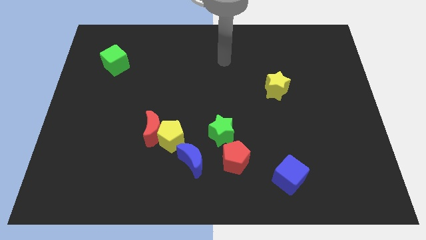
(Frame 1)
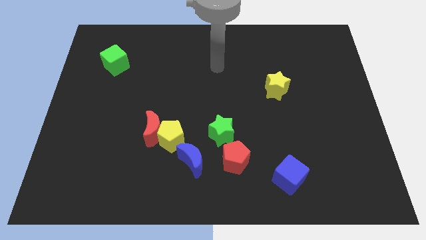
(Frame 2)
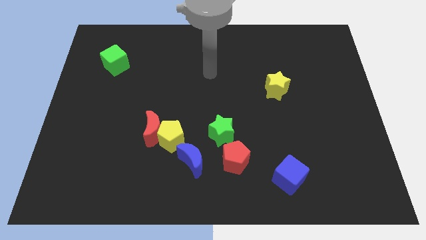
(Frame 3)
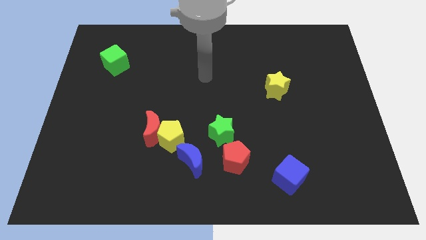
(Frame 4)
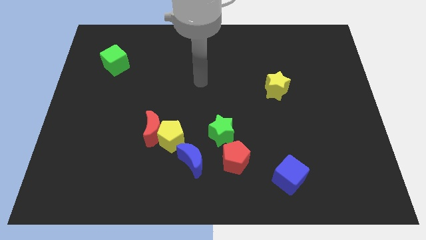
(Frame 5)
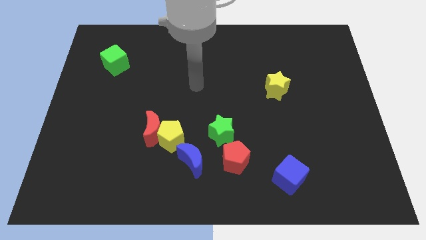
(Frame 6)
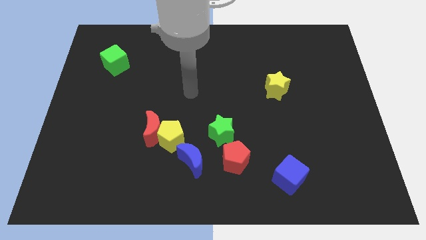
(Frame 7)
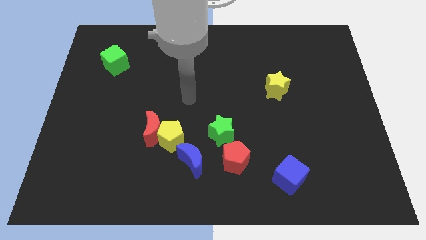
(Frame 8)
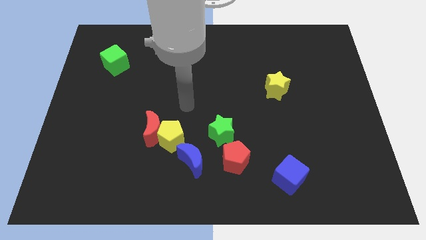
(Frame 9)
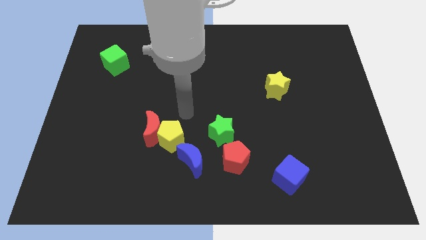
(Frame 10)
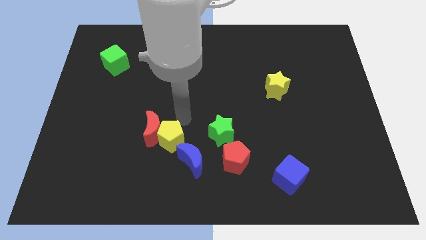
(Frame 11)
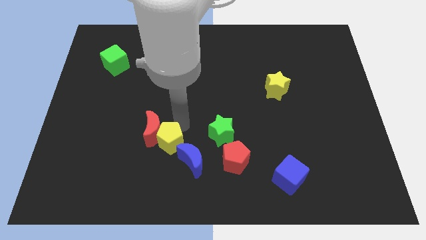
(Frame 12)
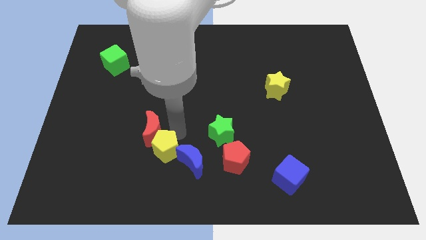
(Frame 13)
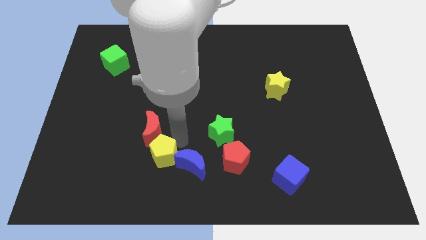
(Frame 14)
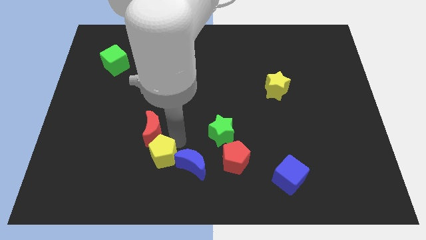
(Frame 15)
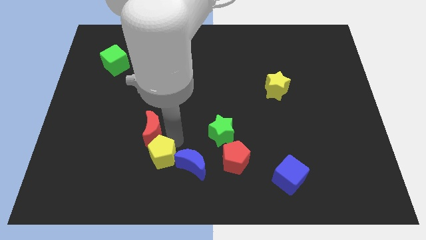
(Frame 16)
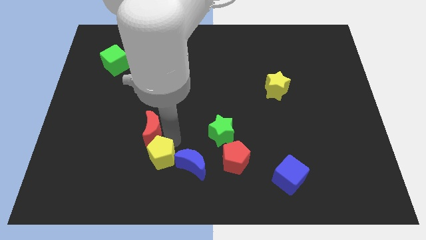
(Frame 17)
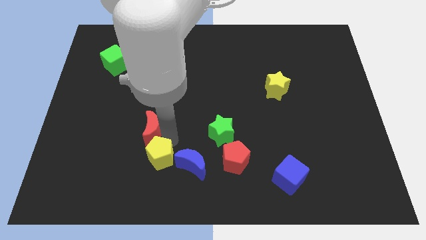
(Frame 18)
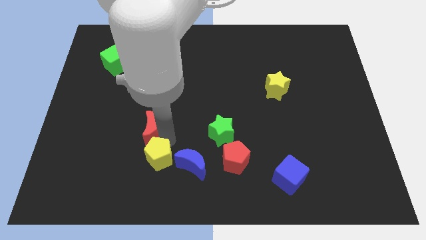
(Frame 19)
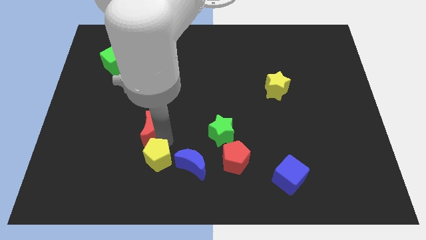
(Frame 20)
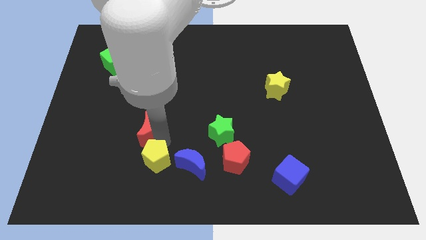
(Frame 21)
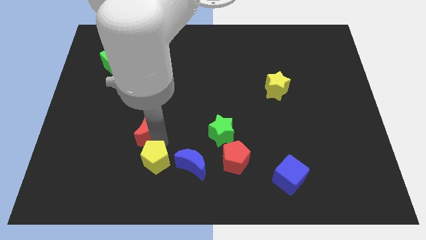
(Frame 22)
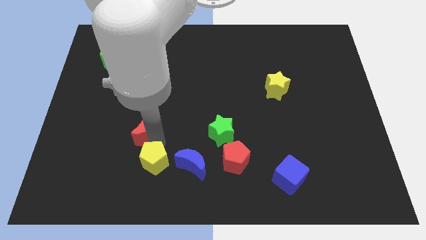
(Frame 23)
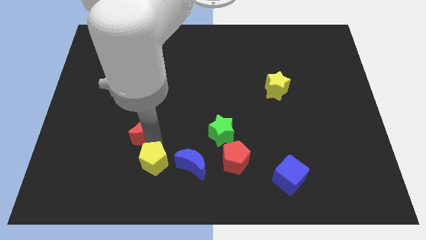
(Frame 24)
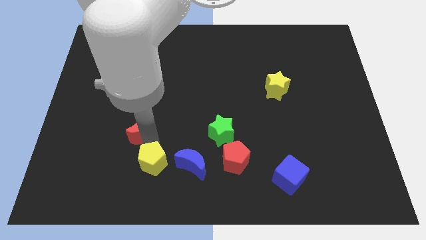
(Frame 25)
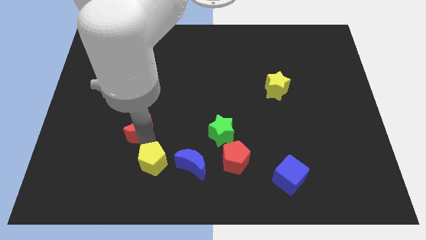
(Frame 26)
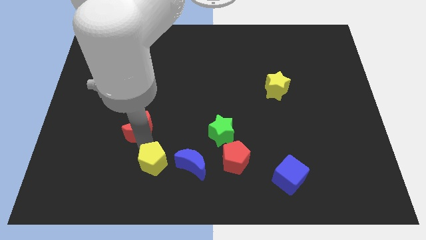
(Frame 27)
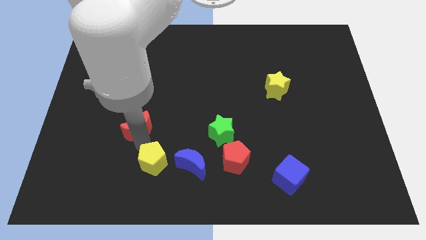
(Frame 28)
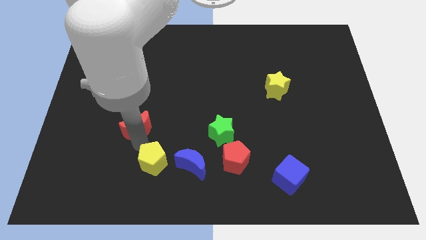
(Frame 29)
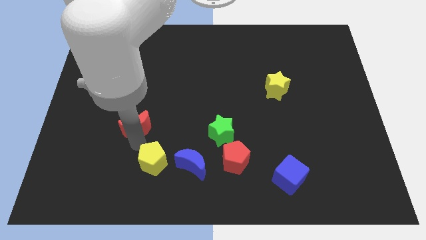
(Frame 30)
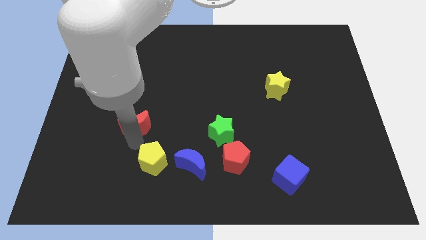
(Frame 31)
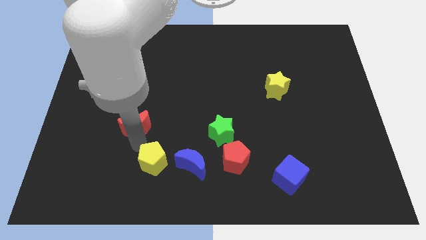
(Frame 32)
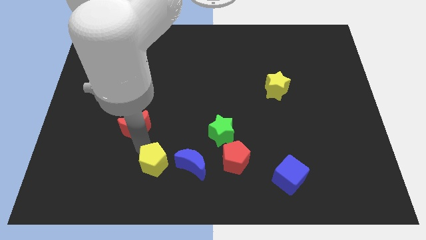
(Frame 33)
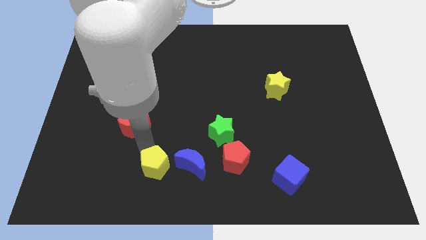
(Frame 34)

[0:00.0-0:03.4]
move the red moon away from the yellow pentagon

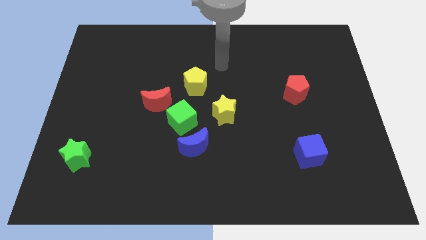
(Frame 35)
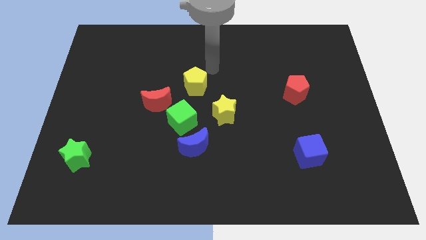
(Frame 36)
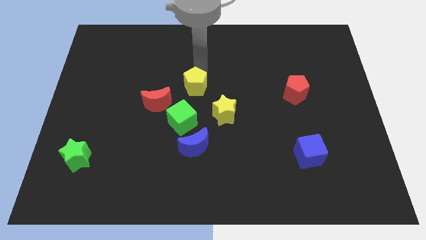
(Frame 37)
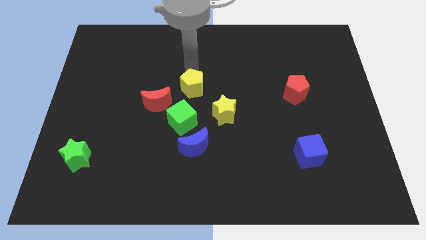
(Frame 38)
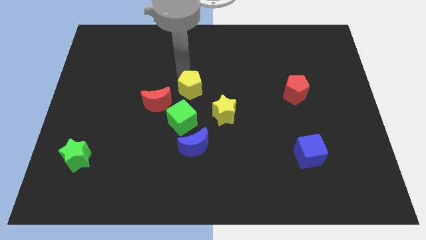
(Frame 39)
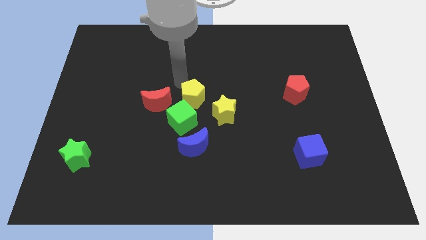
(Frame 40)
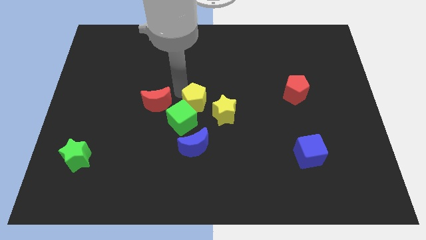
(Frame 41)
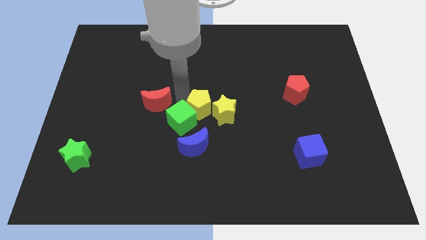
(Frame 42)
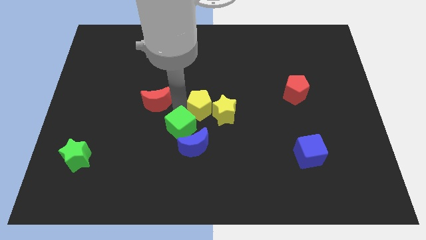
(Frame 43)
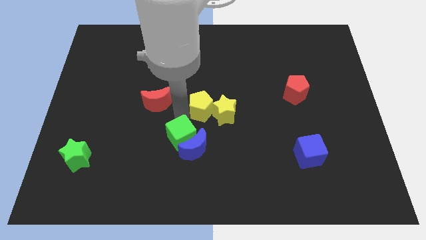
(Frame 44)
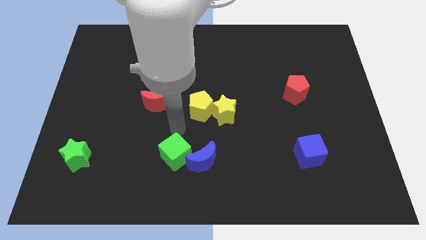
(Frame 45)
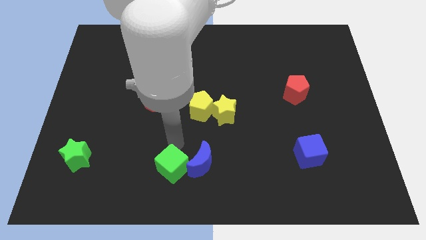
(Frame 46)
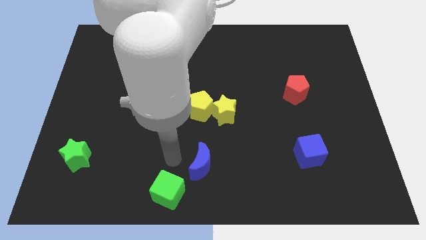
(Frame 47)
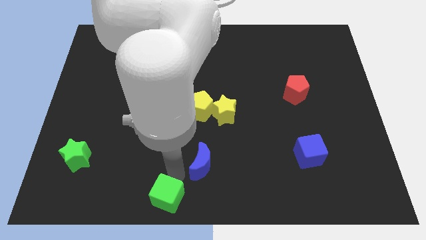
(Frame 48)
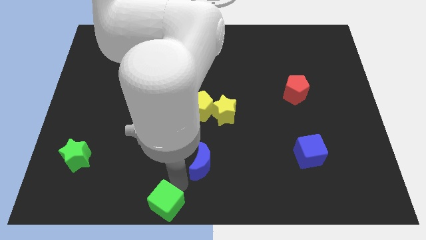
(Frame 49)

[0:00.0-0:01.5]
move the blue moon away from the green cube

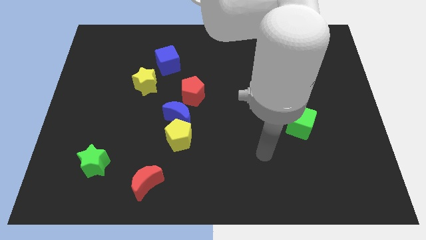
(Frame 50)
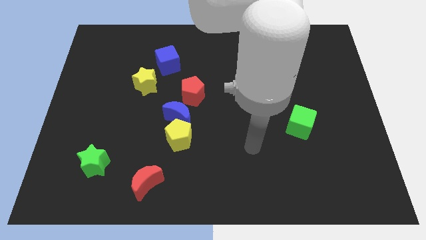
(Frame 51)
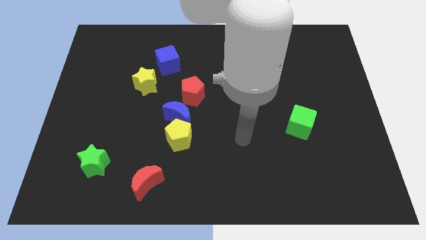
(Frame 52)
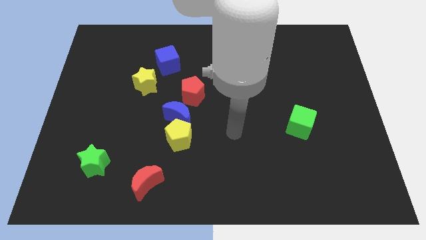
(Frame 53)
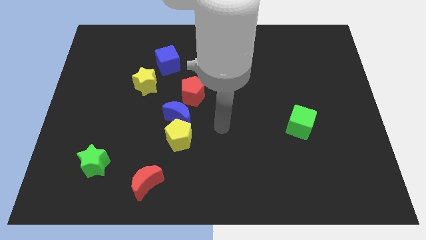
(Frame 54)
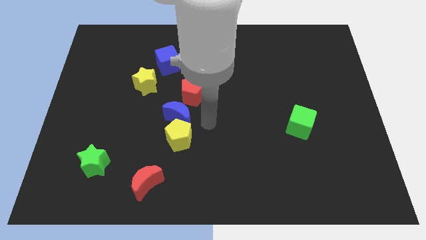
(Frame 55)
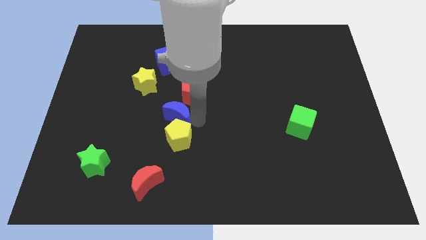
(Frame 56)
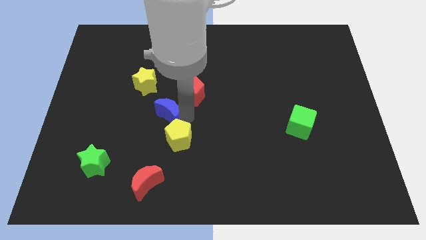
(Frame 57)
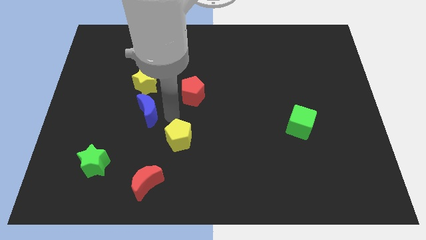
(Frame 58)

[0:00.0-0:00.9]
separate the yellow pentagon from the blue moon

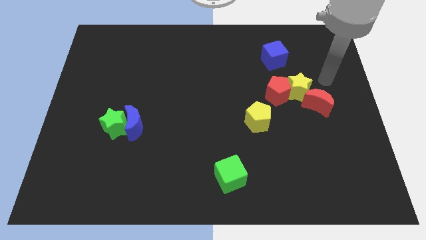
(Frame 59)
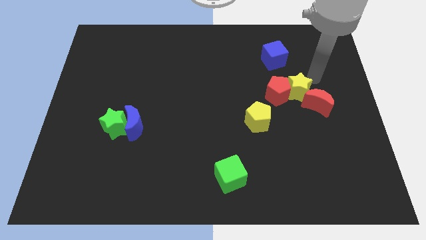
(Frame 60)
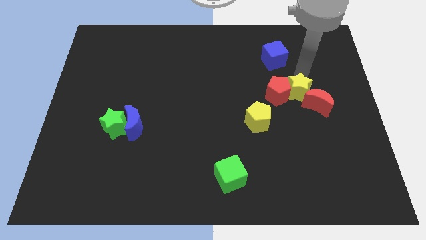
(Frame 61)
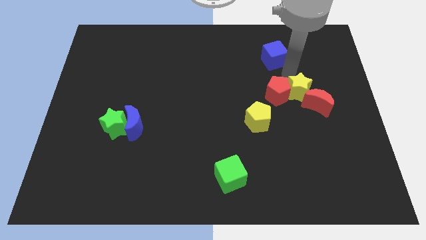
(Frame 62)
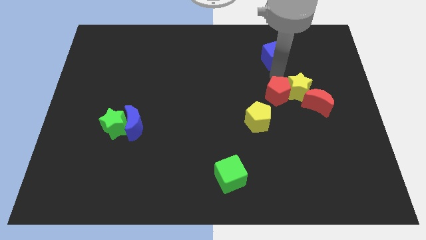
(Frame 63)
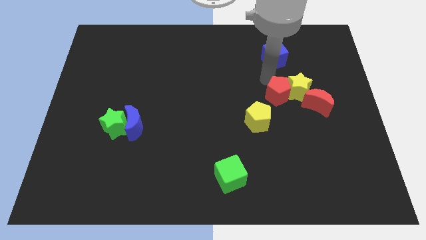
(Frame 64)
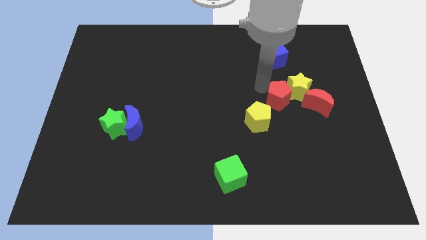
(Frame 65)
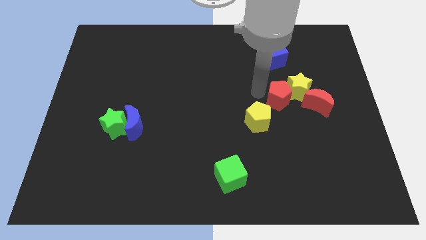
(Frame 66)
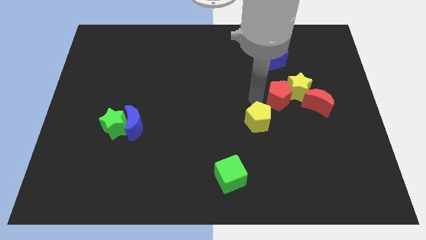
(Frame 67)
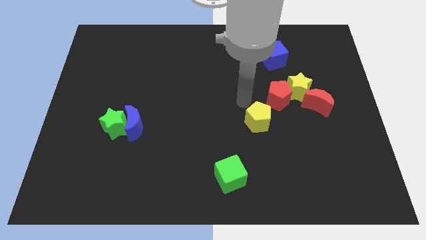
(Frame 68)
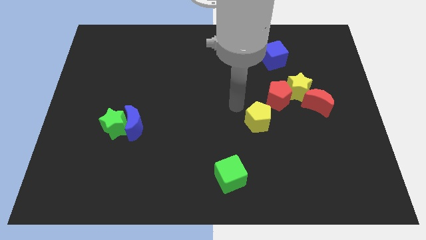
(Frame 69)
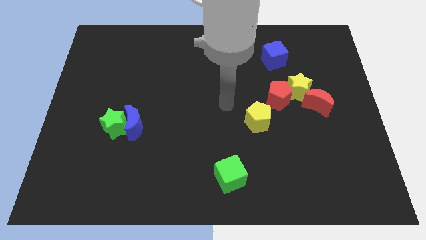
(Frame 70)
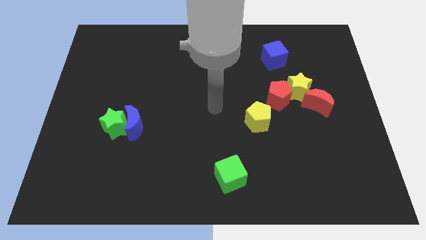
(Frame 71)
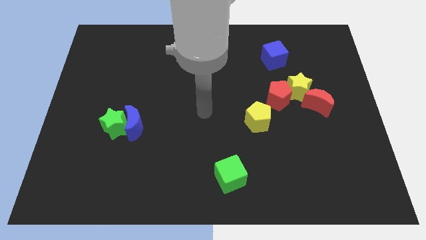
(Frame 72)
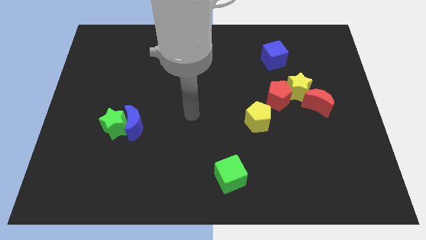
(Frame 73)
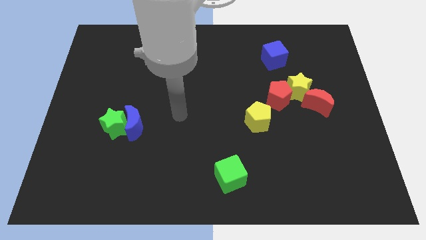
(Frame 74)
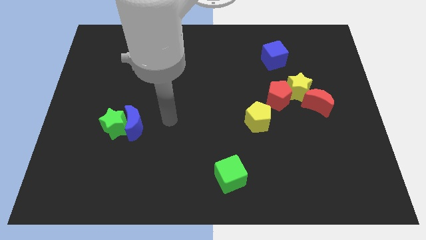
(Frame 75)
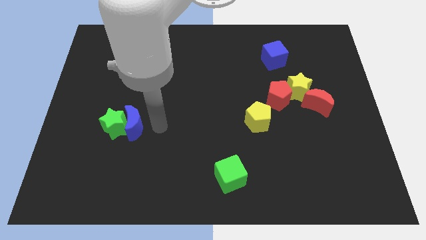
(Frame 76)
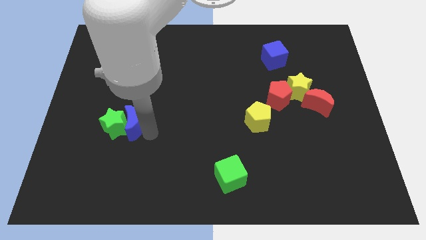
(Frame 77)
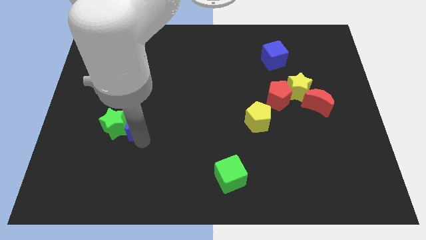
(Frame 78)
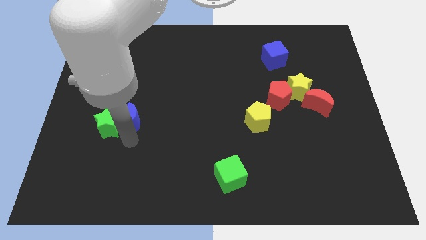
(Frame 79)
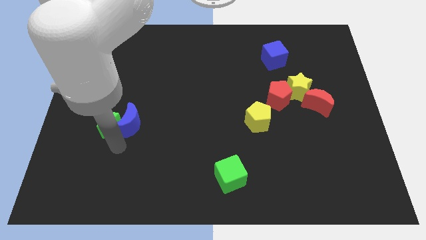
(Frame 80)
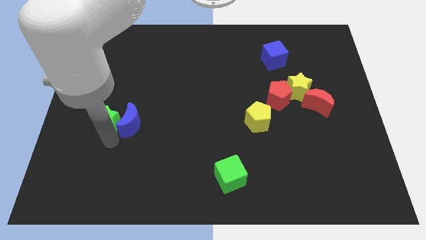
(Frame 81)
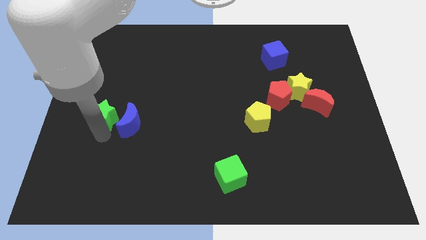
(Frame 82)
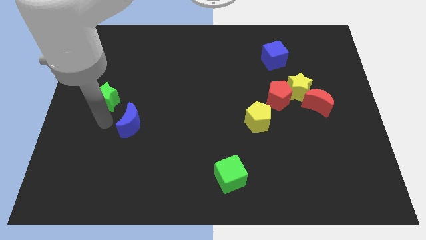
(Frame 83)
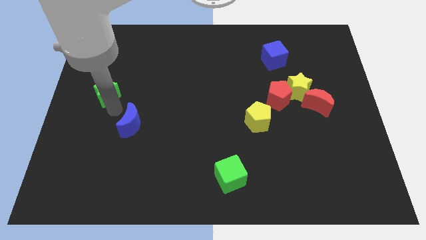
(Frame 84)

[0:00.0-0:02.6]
pull the blue moon apart from the green star

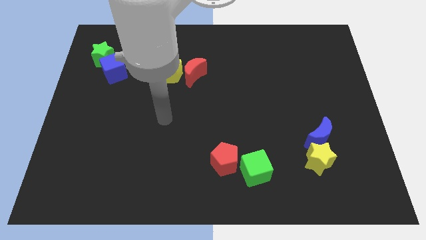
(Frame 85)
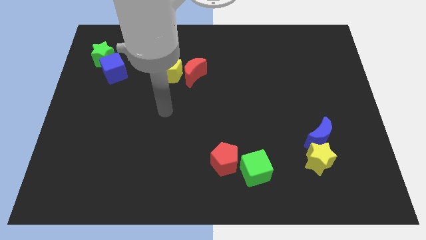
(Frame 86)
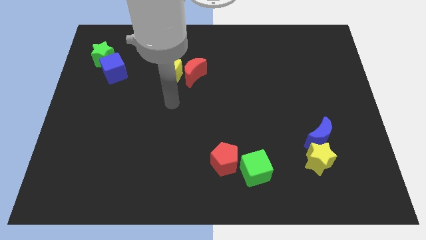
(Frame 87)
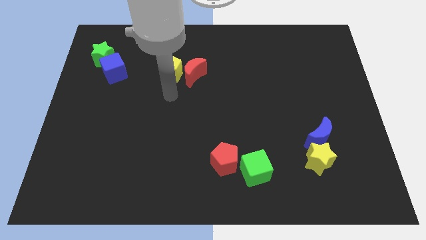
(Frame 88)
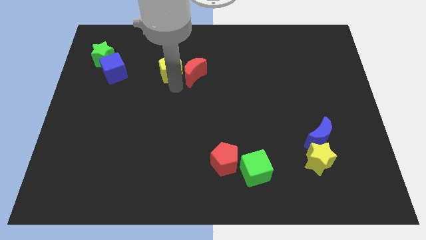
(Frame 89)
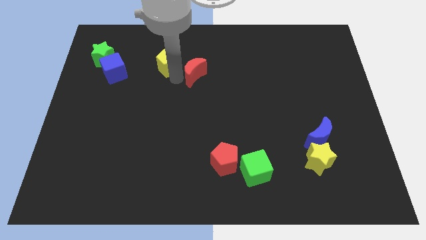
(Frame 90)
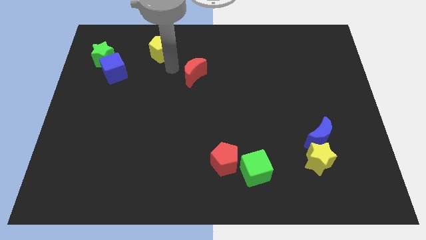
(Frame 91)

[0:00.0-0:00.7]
separate the red moon from the yellow pentagon

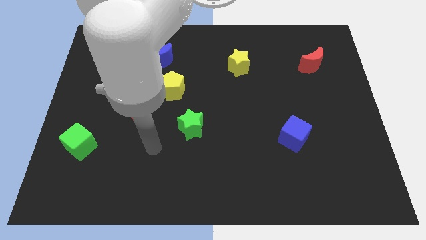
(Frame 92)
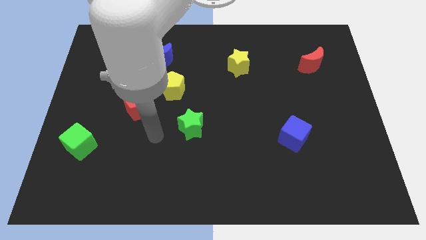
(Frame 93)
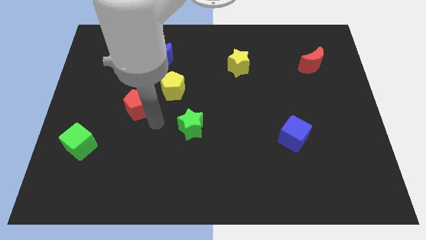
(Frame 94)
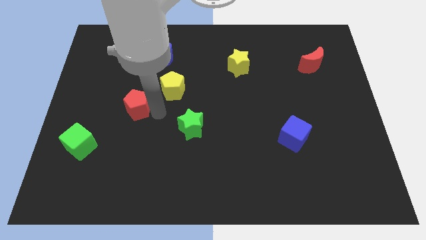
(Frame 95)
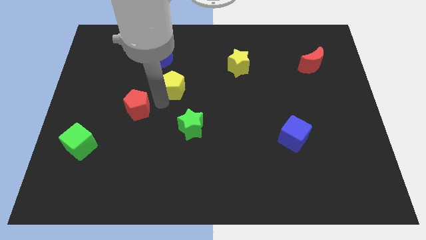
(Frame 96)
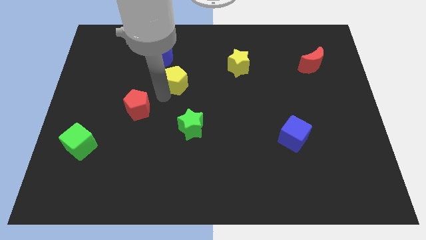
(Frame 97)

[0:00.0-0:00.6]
pull the red pentagon apart from the yellow pentagon
